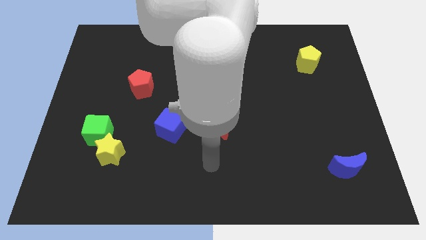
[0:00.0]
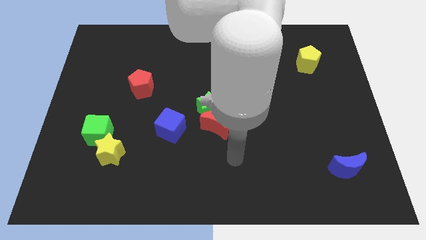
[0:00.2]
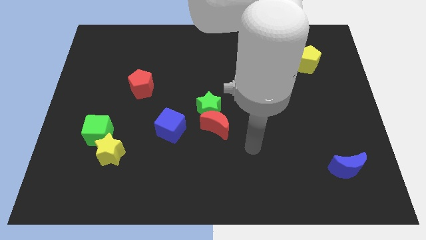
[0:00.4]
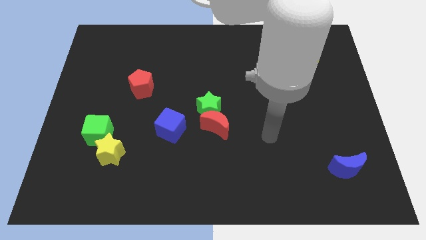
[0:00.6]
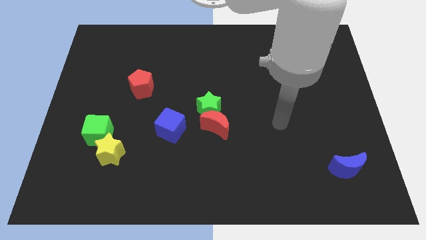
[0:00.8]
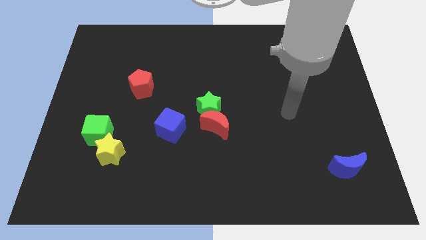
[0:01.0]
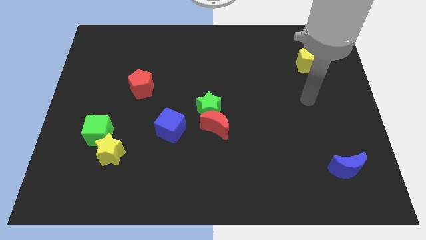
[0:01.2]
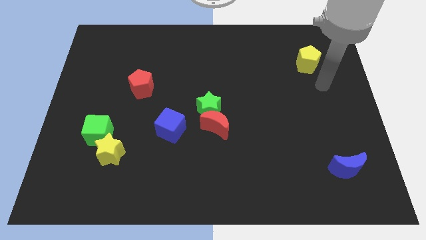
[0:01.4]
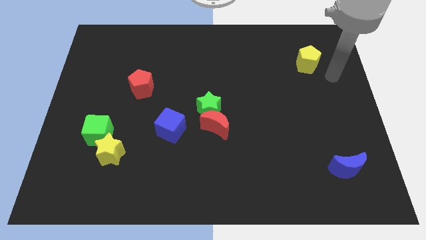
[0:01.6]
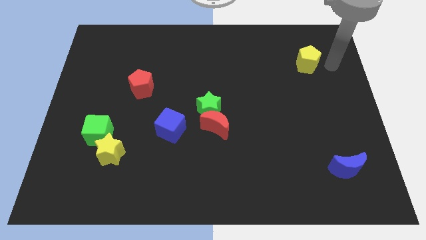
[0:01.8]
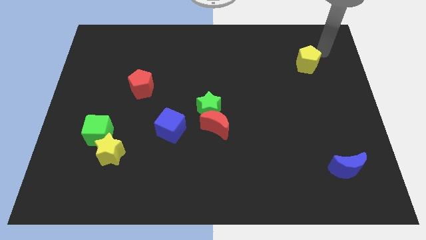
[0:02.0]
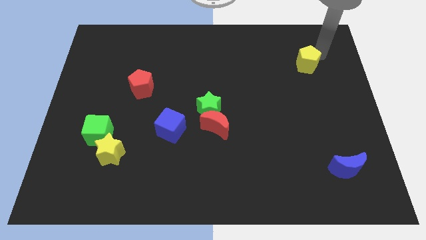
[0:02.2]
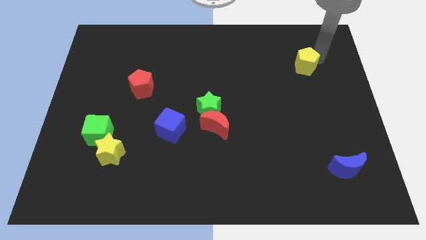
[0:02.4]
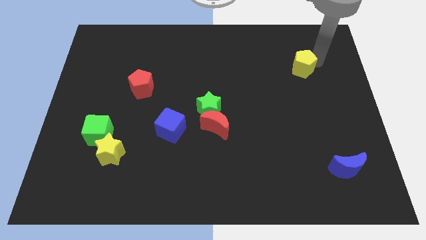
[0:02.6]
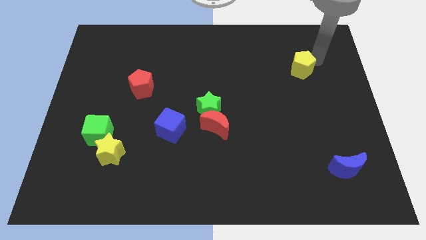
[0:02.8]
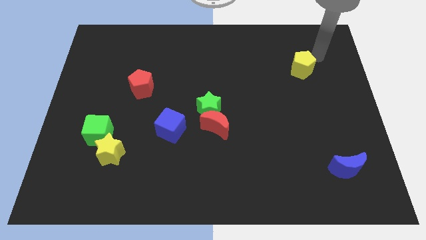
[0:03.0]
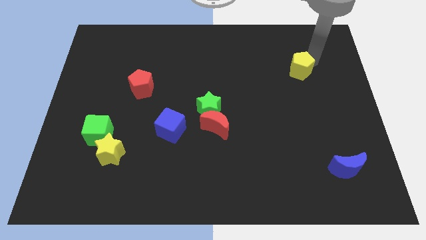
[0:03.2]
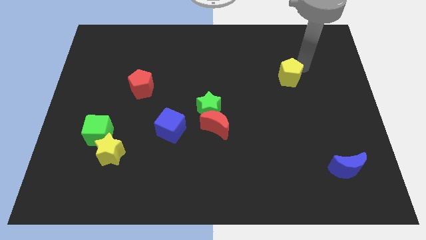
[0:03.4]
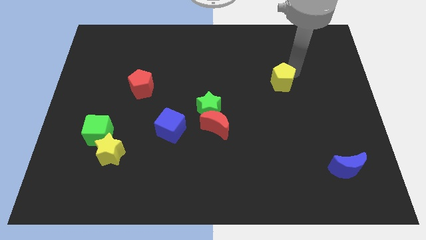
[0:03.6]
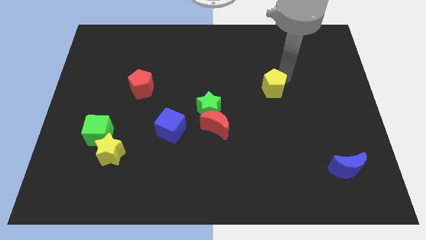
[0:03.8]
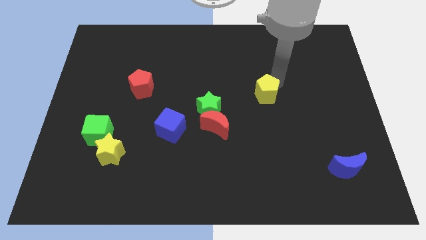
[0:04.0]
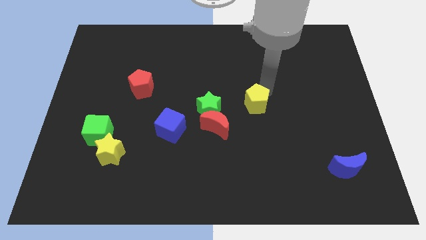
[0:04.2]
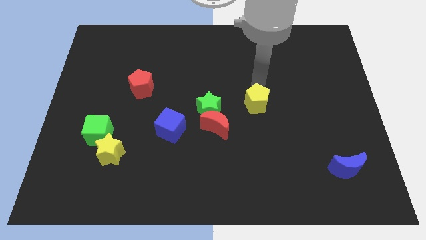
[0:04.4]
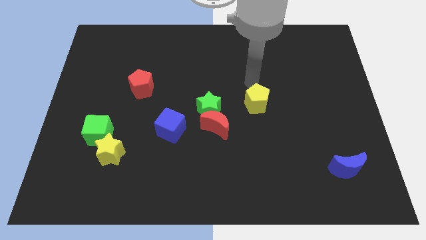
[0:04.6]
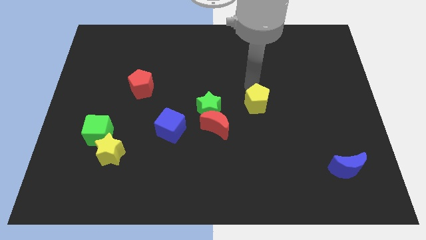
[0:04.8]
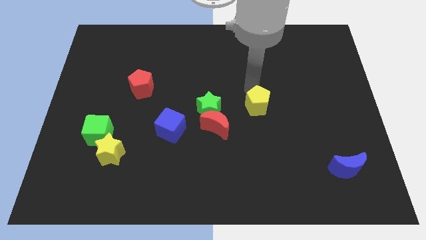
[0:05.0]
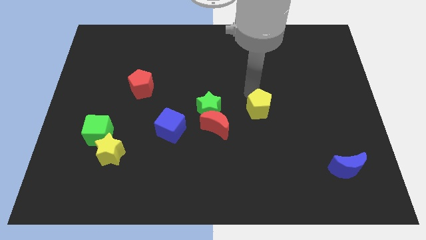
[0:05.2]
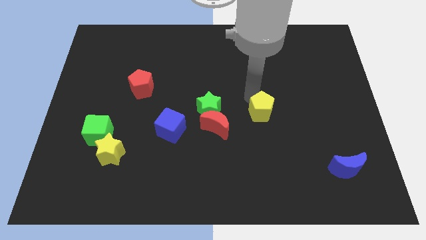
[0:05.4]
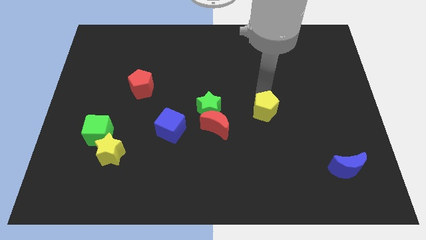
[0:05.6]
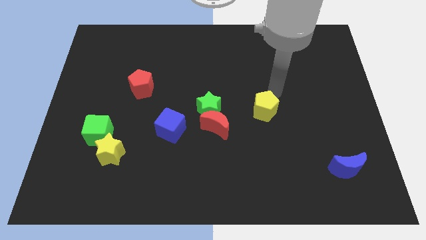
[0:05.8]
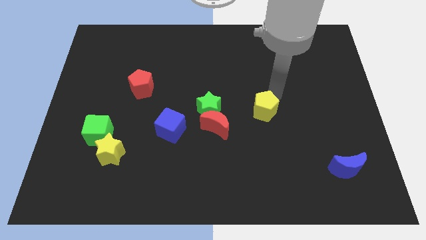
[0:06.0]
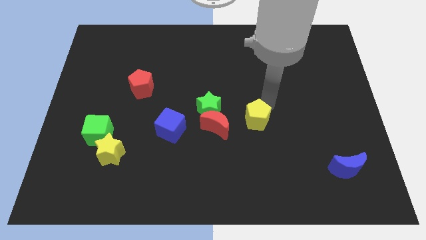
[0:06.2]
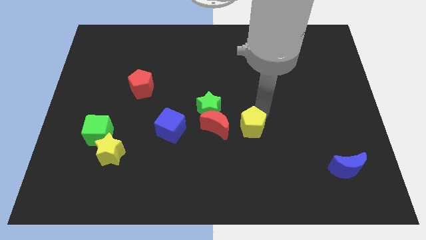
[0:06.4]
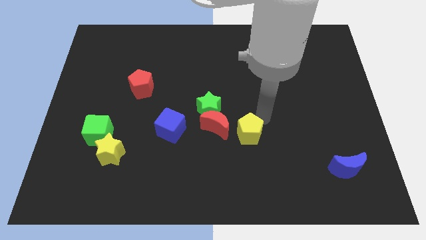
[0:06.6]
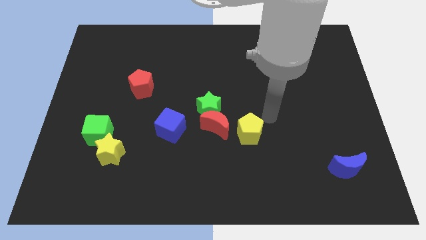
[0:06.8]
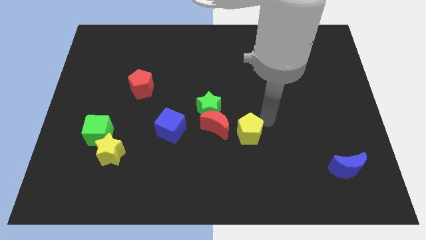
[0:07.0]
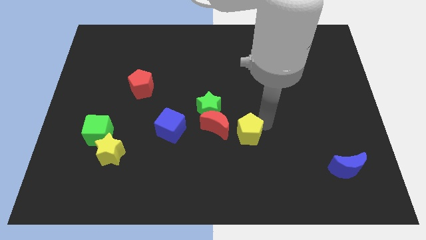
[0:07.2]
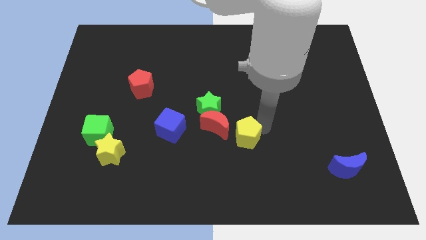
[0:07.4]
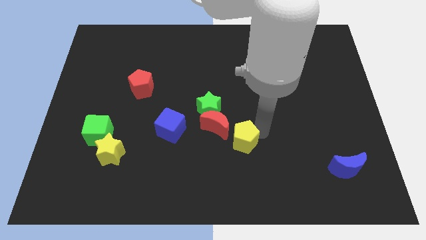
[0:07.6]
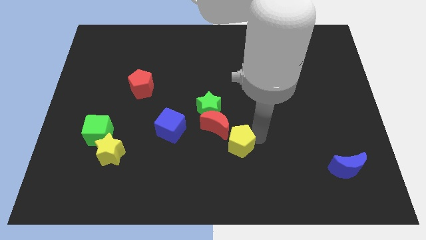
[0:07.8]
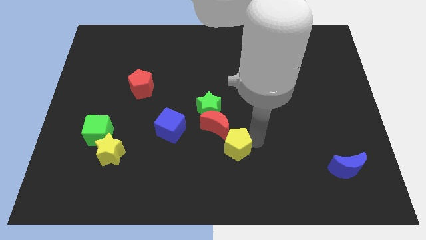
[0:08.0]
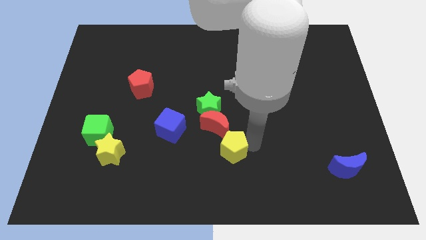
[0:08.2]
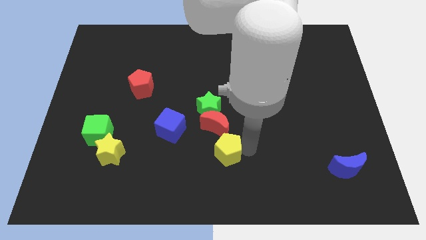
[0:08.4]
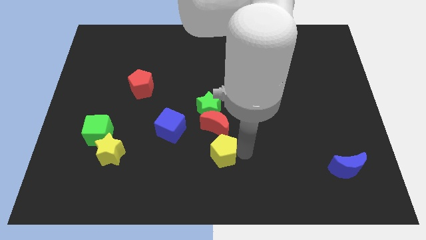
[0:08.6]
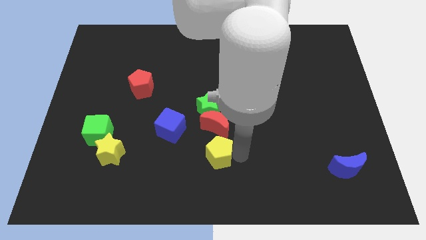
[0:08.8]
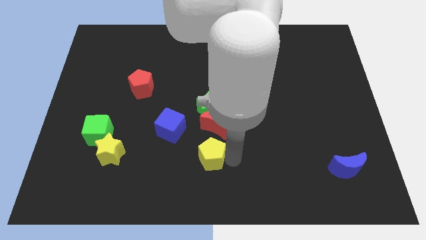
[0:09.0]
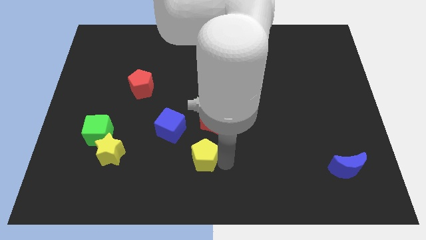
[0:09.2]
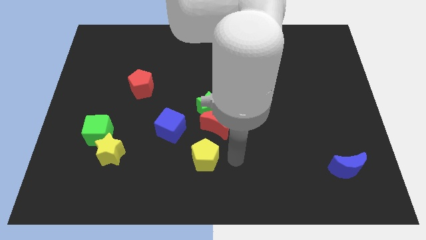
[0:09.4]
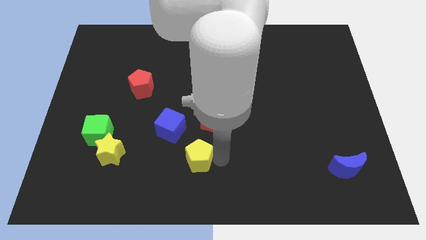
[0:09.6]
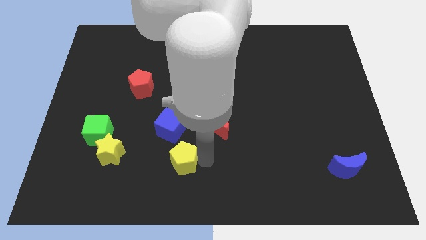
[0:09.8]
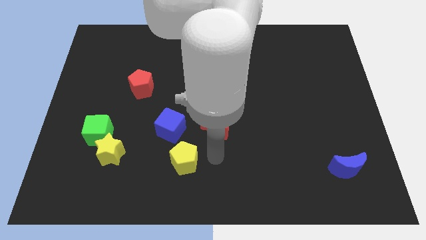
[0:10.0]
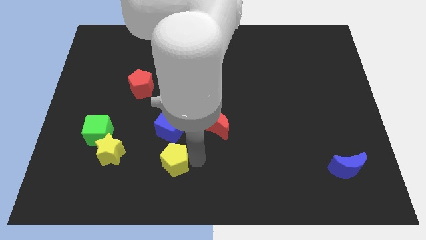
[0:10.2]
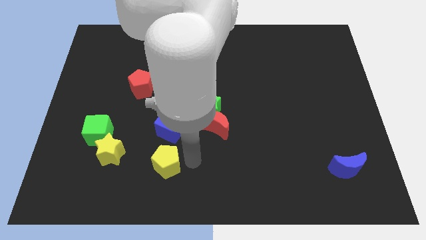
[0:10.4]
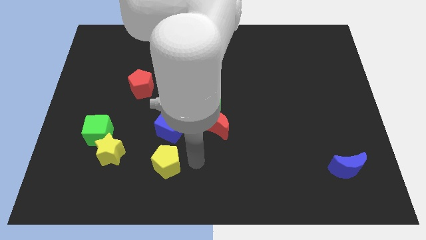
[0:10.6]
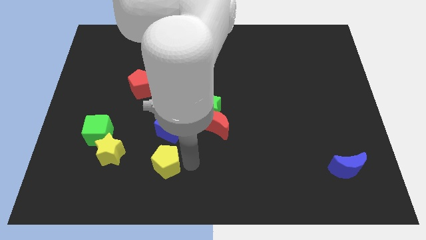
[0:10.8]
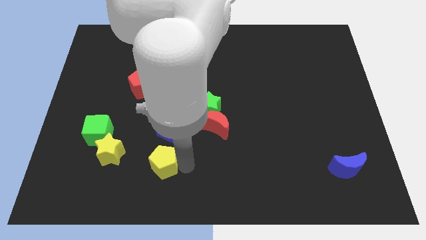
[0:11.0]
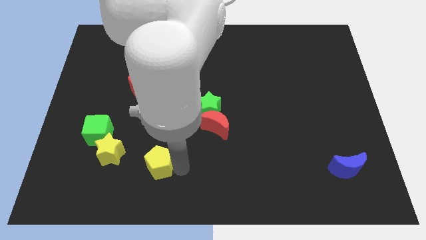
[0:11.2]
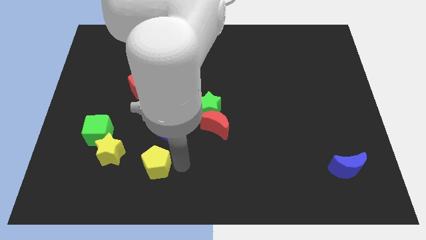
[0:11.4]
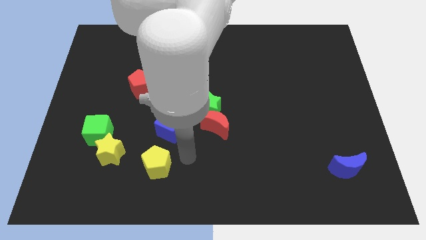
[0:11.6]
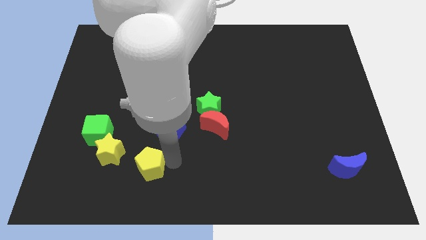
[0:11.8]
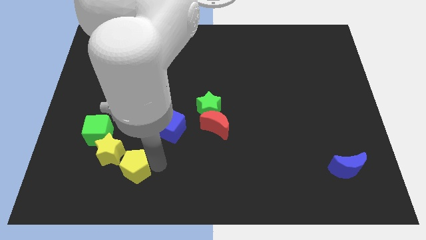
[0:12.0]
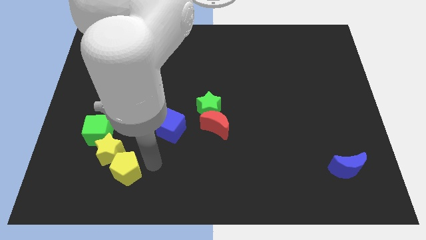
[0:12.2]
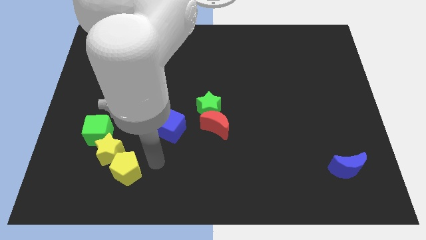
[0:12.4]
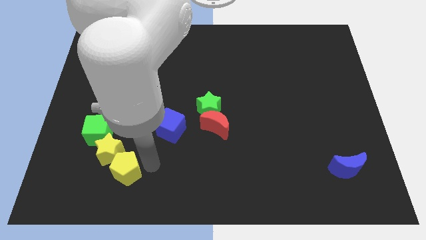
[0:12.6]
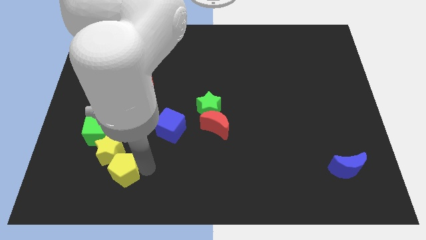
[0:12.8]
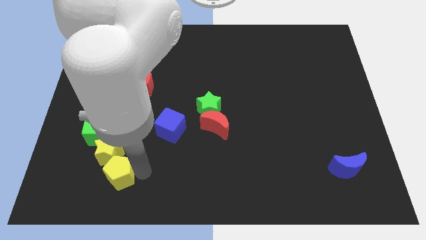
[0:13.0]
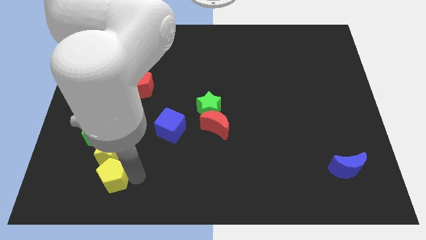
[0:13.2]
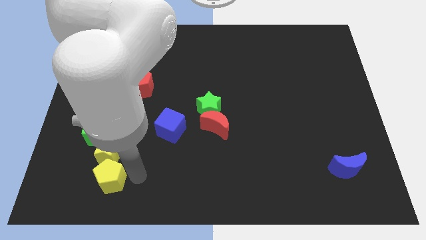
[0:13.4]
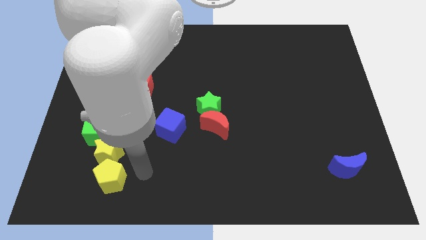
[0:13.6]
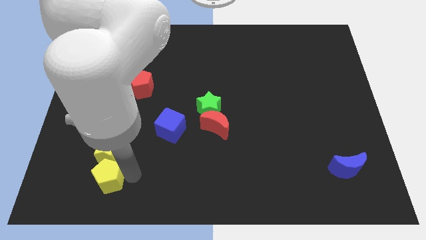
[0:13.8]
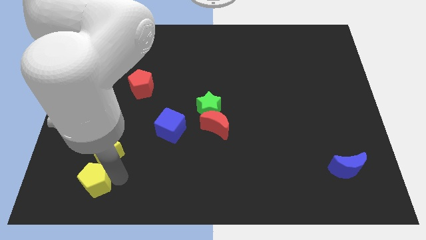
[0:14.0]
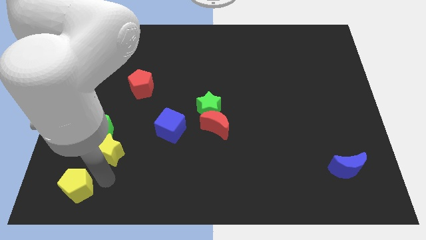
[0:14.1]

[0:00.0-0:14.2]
slide the yellow pentagon to the bottom left of the board
